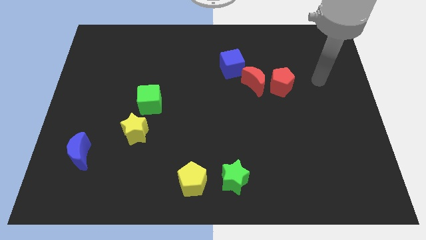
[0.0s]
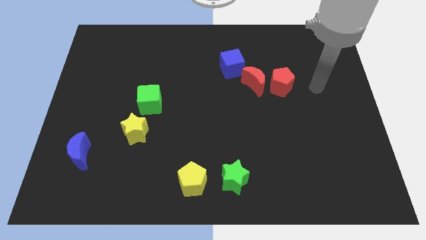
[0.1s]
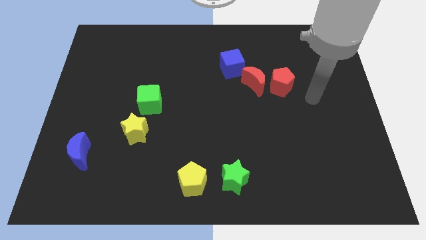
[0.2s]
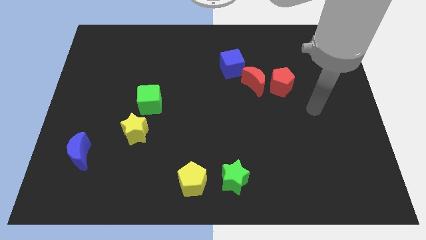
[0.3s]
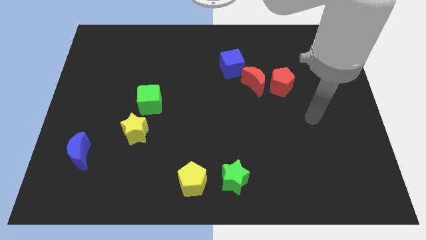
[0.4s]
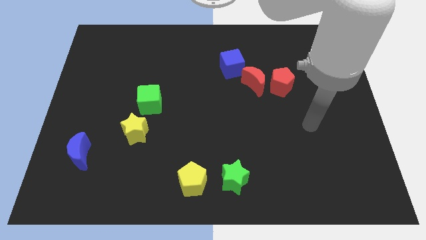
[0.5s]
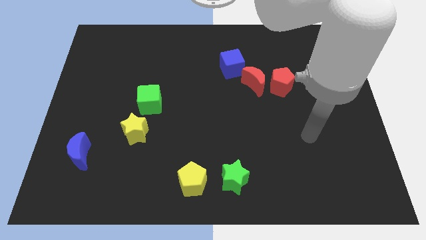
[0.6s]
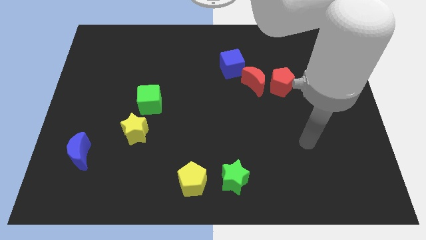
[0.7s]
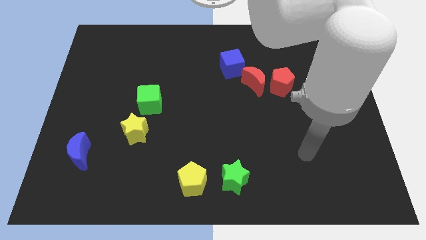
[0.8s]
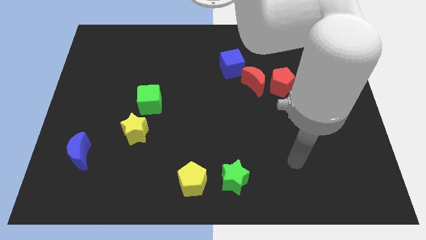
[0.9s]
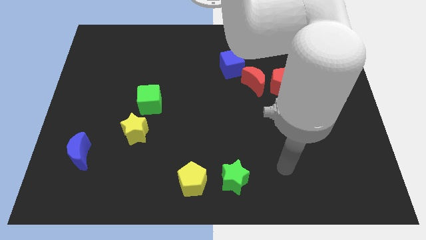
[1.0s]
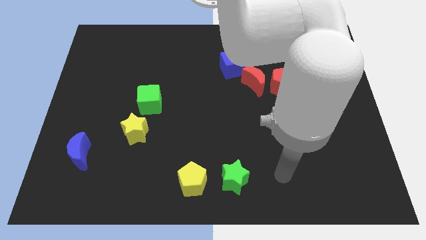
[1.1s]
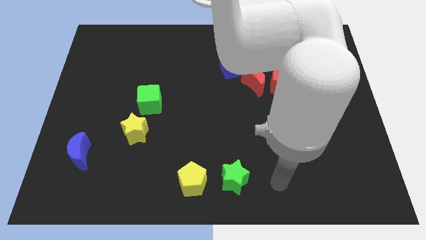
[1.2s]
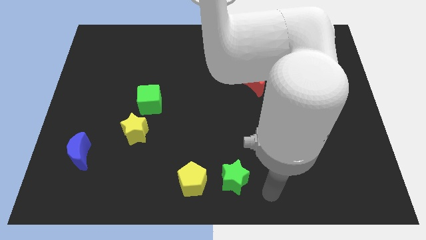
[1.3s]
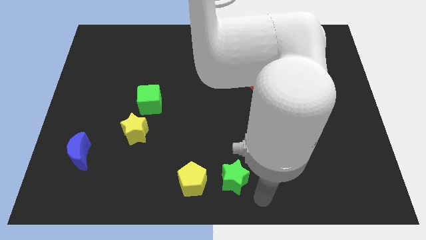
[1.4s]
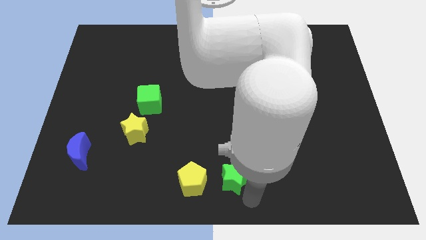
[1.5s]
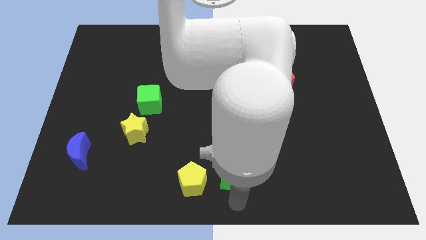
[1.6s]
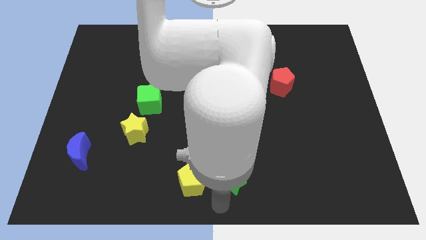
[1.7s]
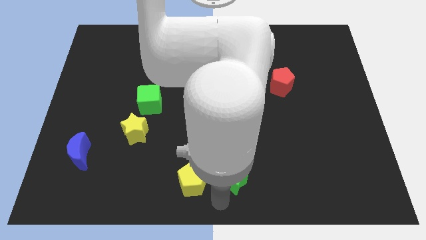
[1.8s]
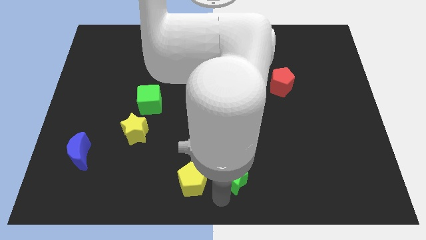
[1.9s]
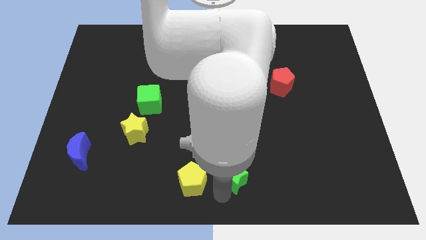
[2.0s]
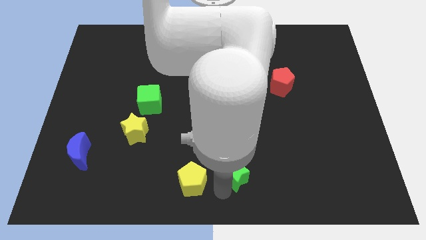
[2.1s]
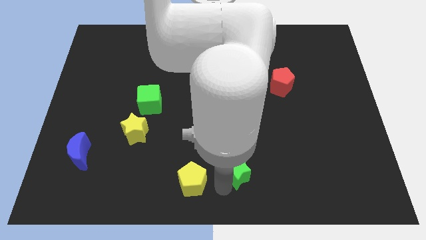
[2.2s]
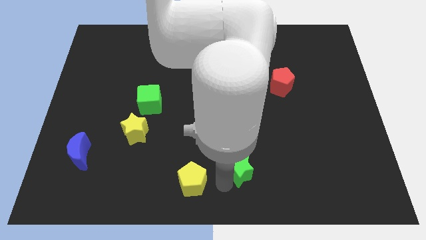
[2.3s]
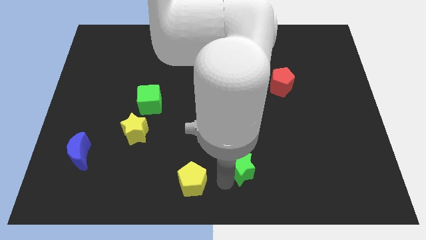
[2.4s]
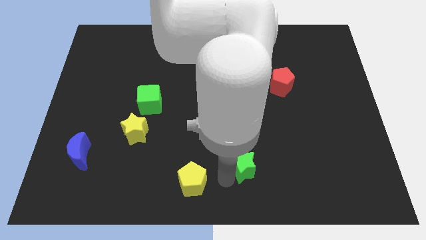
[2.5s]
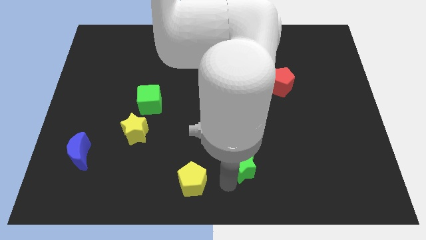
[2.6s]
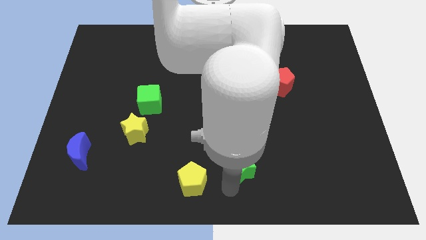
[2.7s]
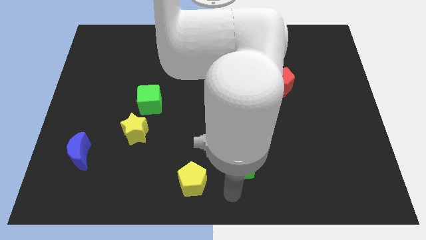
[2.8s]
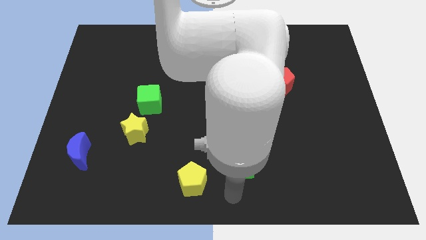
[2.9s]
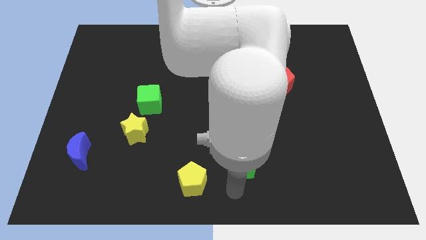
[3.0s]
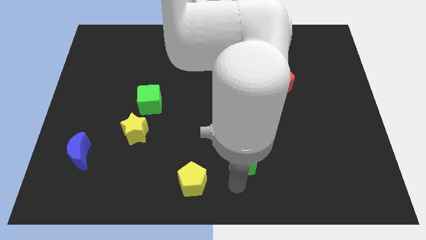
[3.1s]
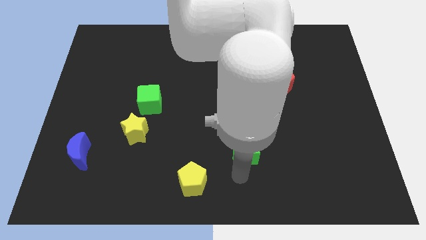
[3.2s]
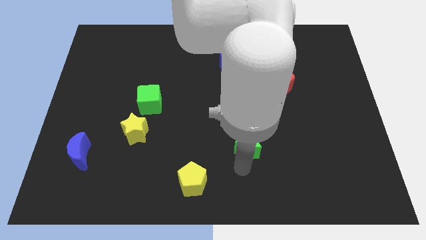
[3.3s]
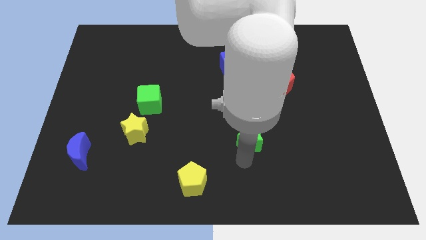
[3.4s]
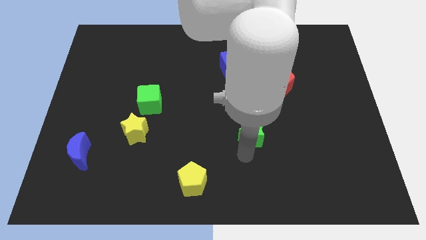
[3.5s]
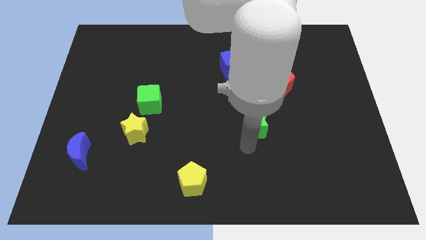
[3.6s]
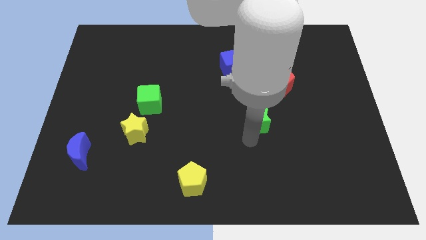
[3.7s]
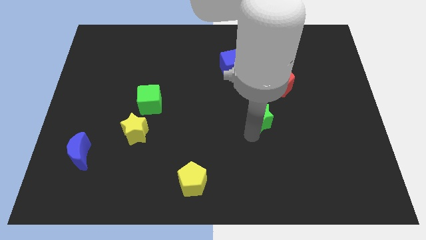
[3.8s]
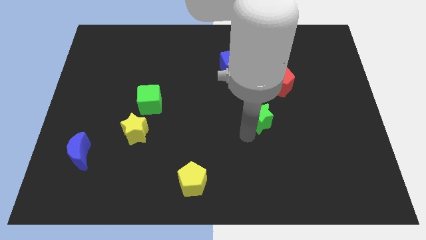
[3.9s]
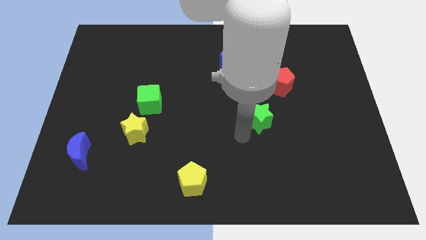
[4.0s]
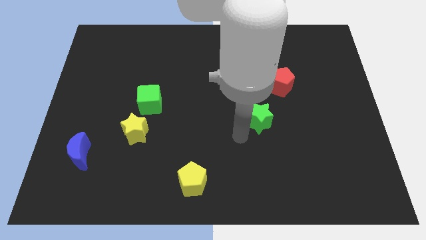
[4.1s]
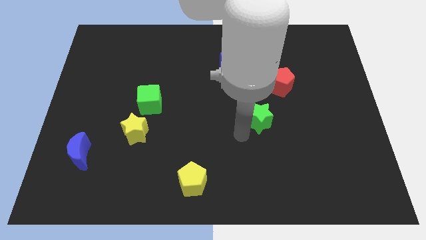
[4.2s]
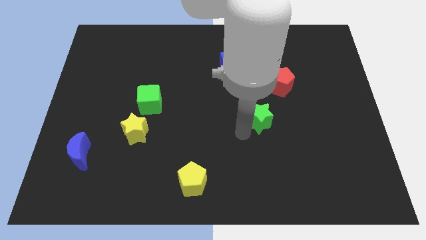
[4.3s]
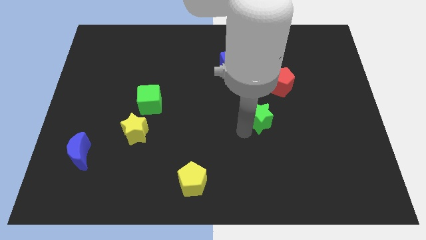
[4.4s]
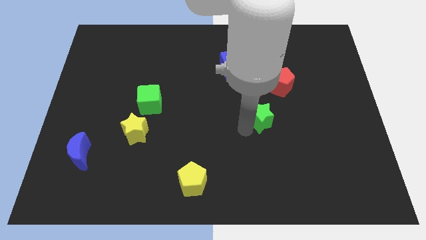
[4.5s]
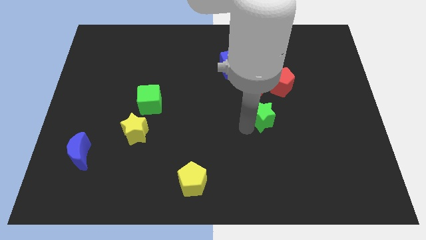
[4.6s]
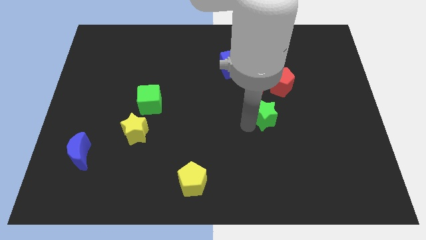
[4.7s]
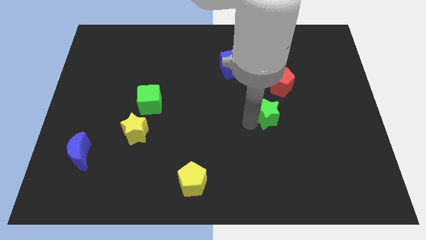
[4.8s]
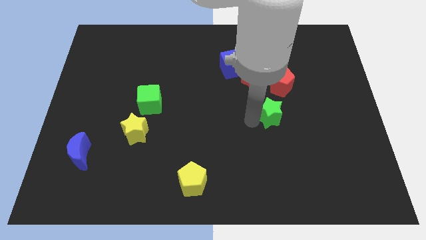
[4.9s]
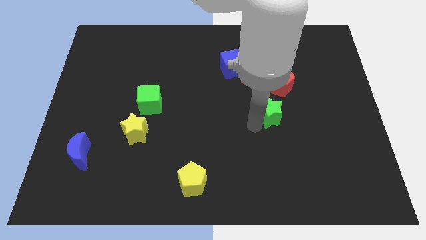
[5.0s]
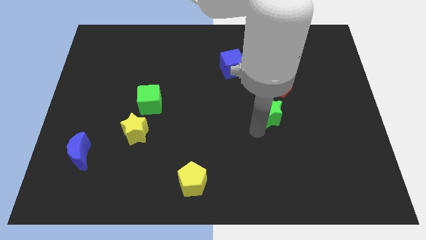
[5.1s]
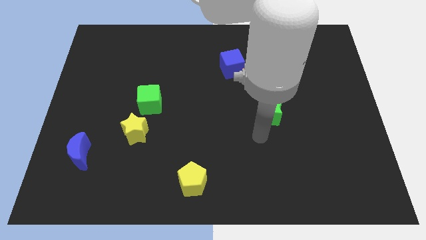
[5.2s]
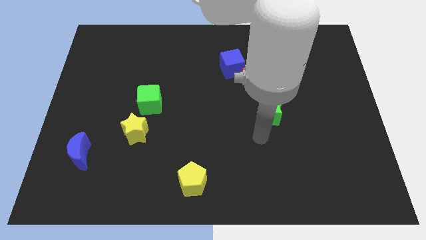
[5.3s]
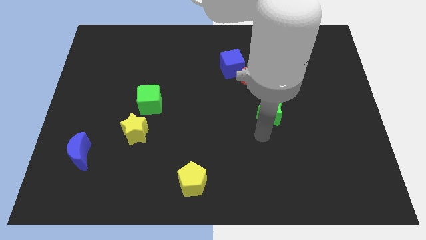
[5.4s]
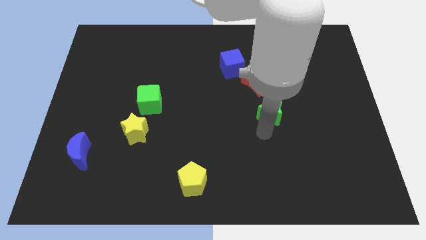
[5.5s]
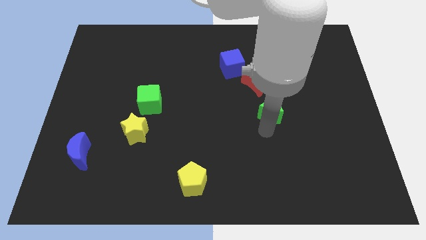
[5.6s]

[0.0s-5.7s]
slide the green star to the bottom right of the red moon

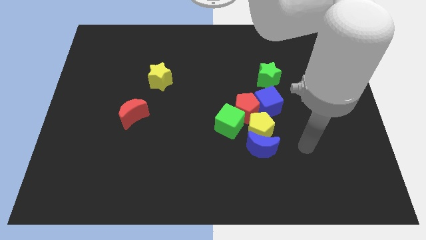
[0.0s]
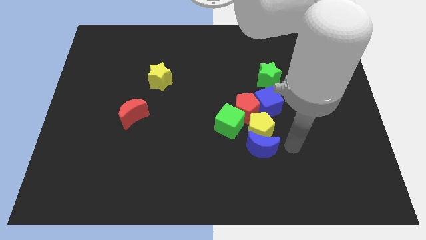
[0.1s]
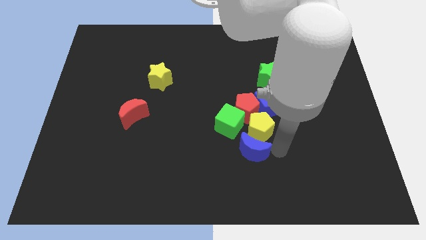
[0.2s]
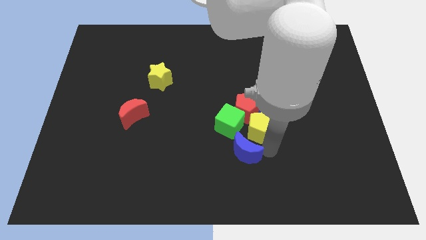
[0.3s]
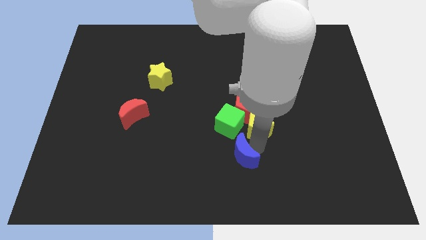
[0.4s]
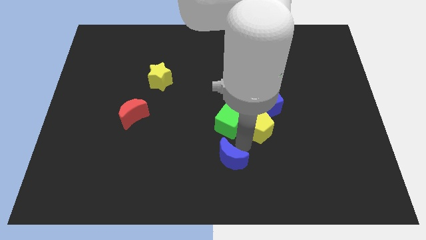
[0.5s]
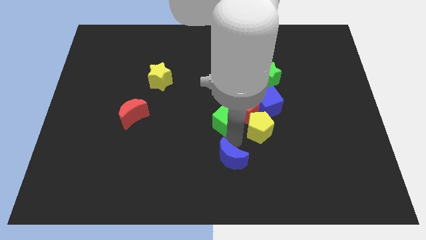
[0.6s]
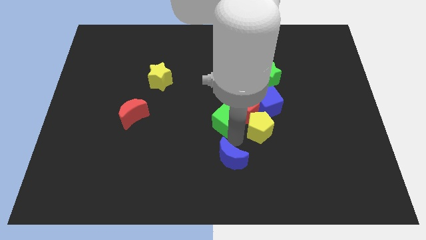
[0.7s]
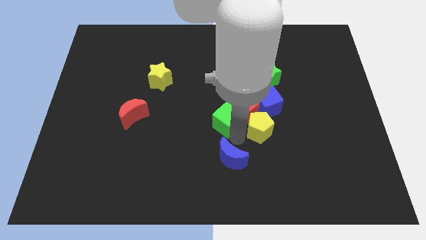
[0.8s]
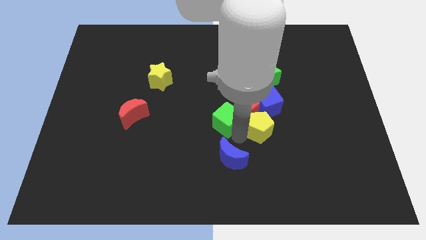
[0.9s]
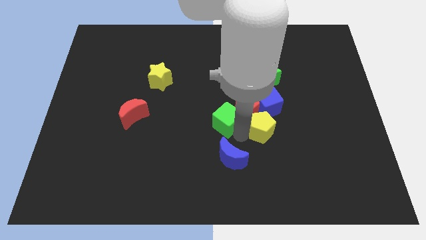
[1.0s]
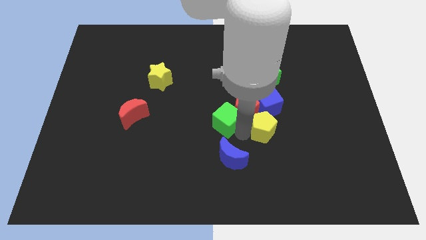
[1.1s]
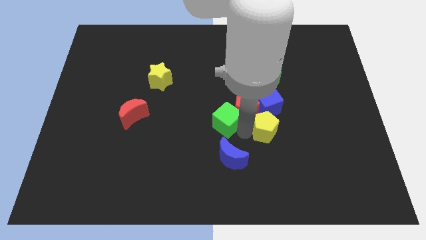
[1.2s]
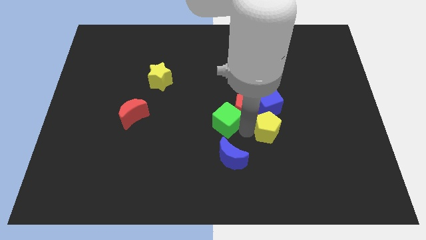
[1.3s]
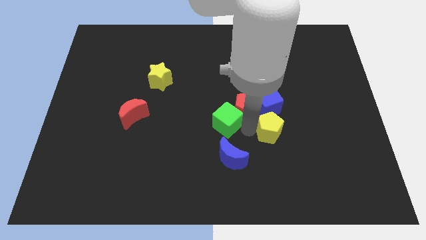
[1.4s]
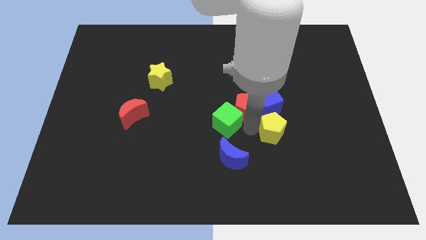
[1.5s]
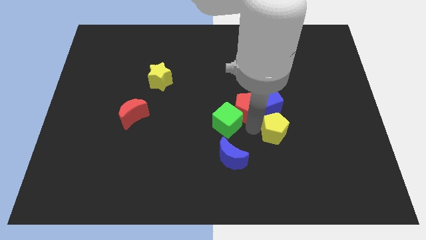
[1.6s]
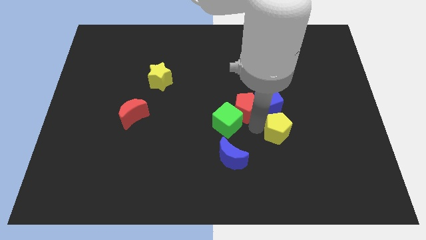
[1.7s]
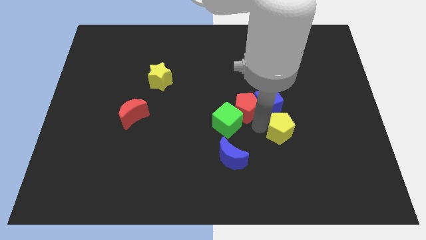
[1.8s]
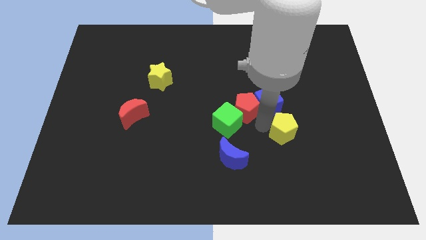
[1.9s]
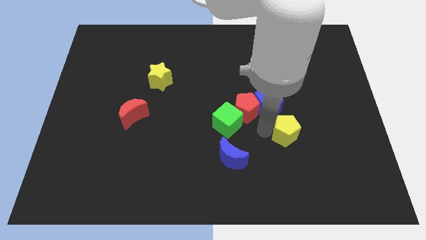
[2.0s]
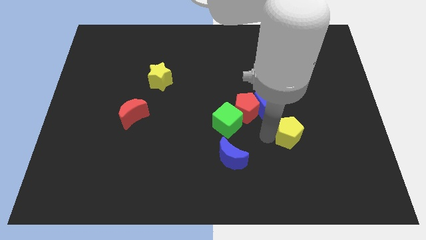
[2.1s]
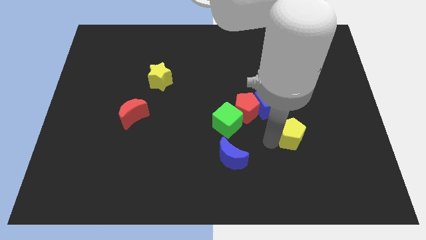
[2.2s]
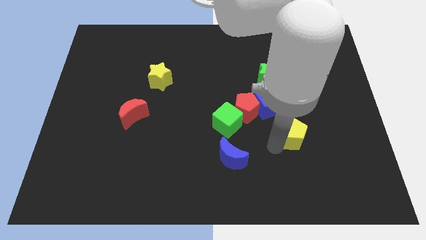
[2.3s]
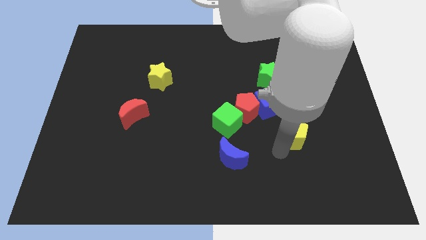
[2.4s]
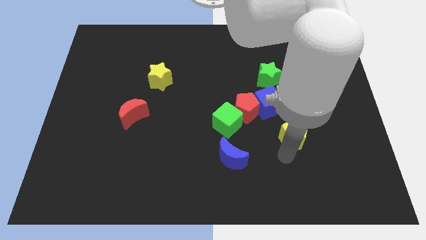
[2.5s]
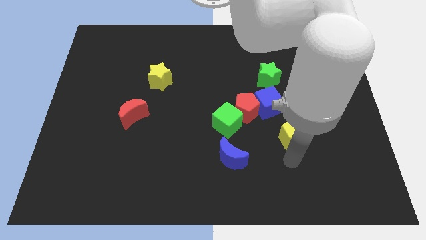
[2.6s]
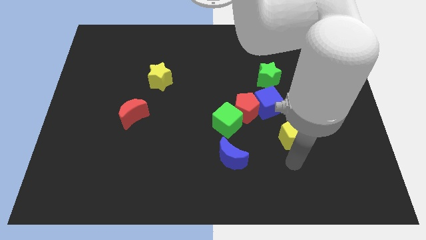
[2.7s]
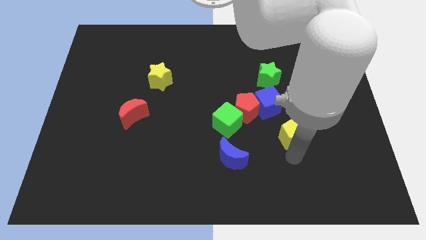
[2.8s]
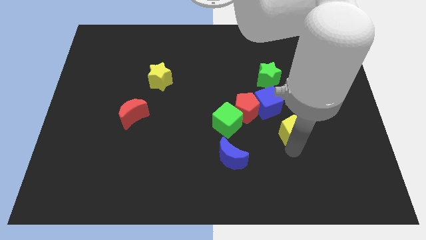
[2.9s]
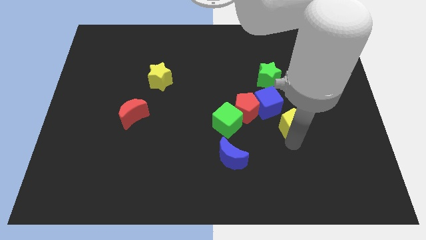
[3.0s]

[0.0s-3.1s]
put the yellow pentagon just right of the red pentagon
